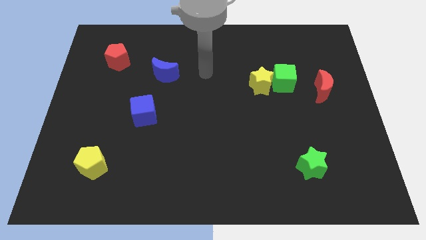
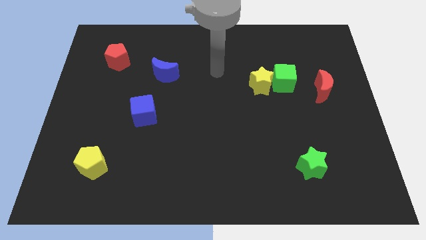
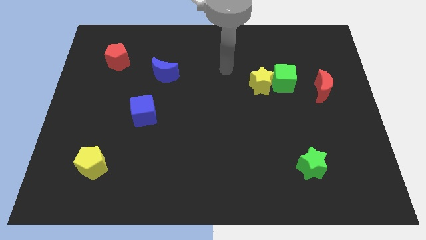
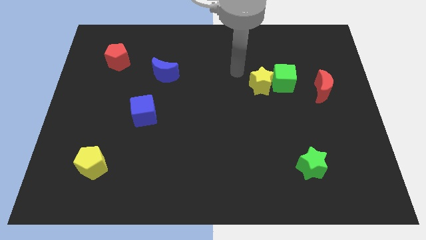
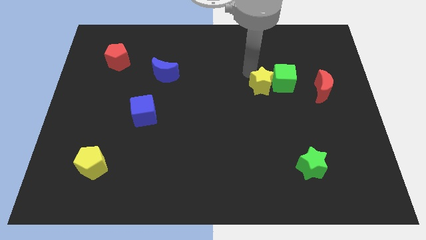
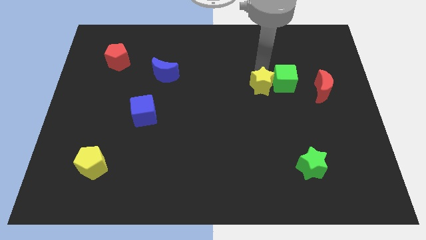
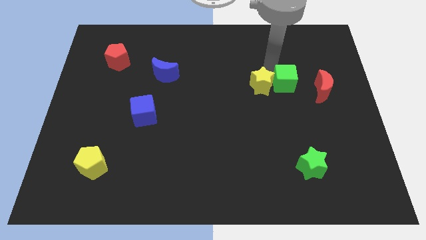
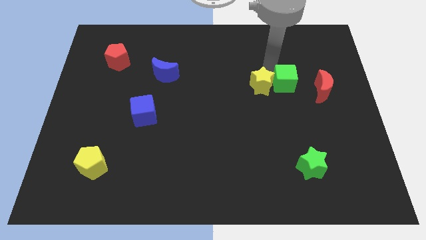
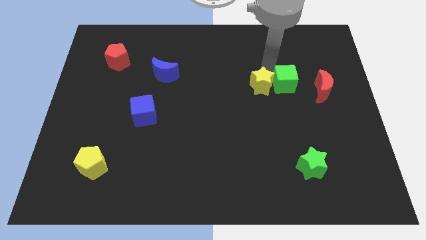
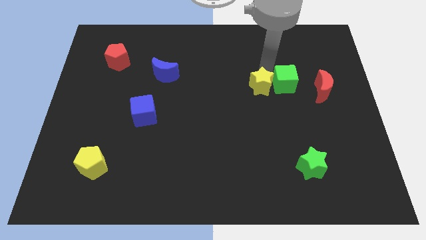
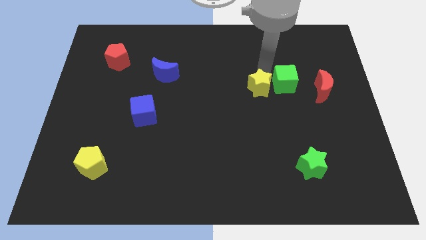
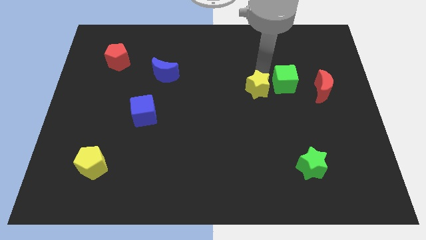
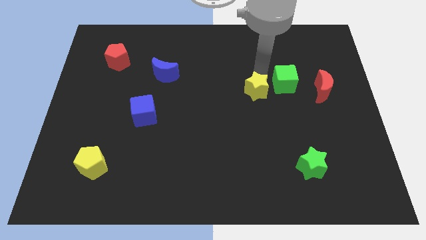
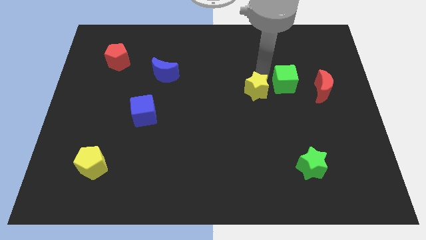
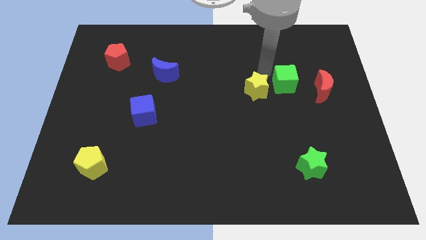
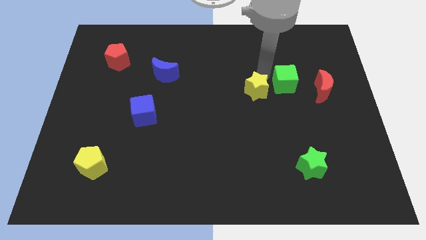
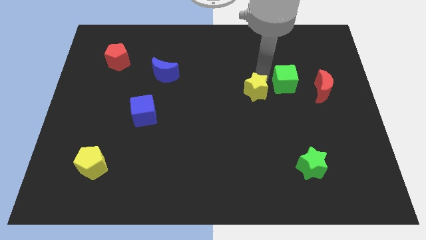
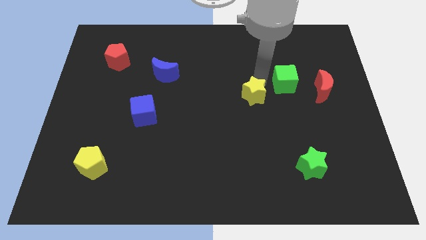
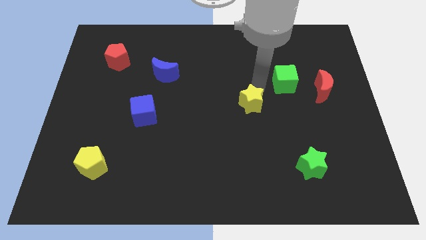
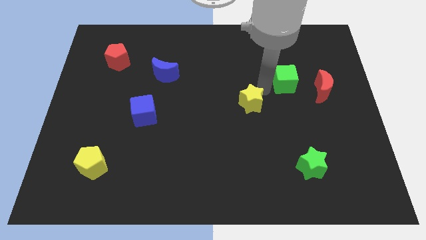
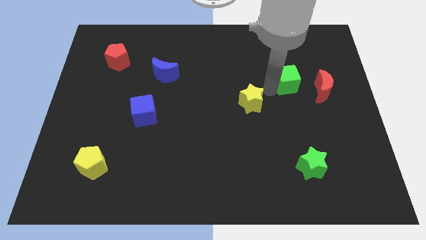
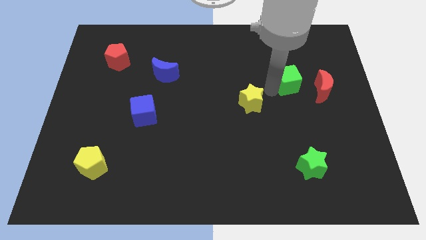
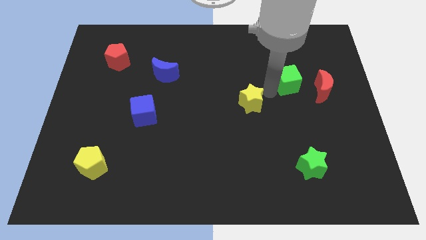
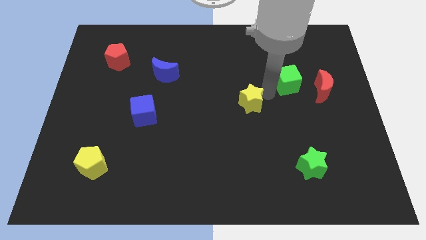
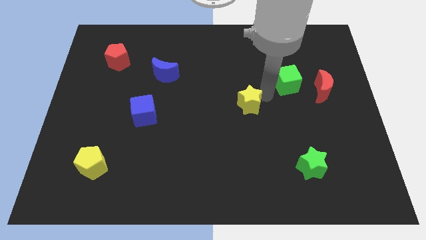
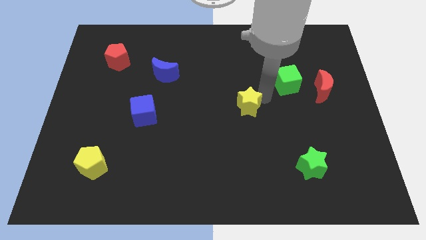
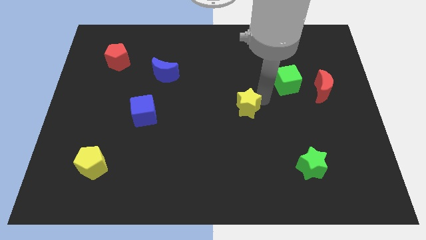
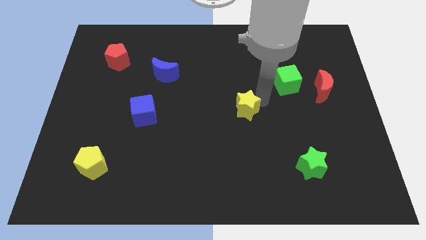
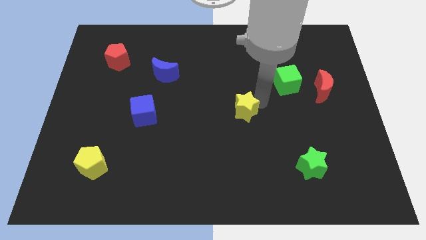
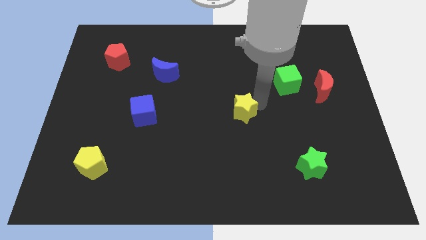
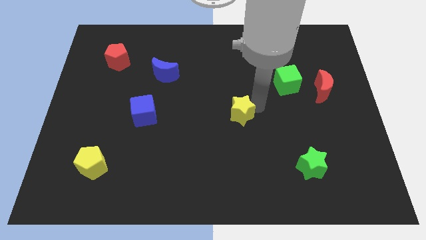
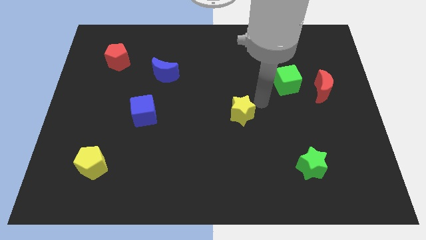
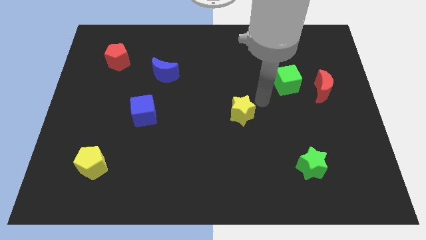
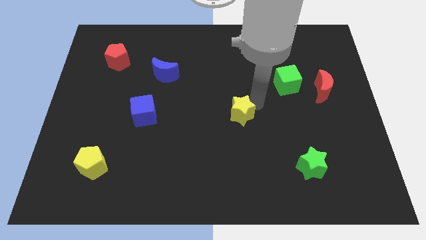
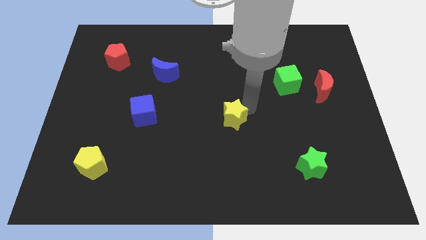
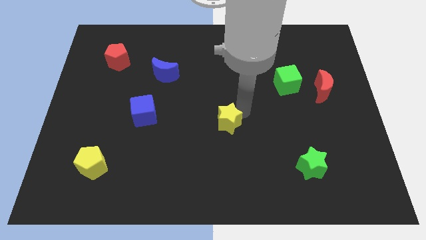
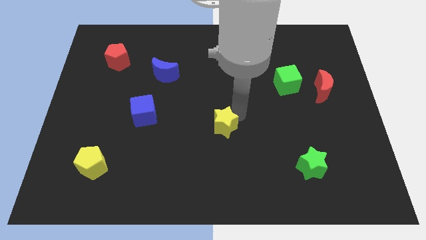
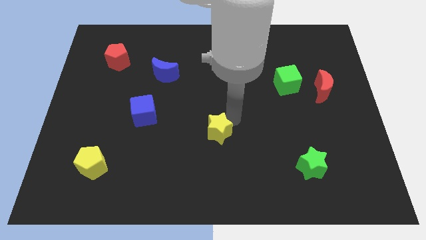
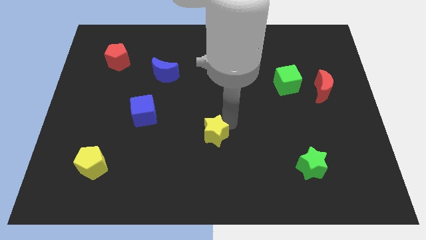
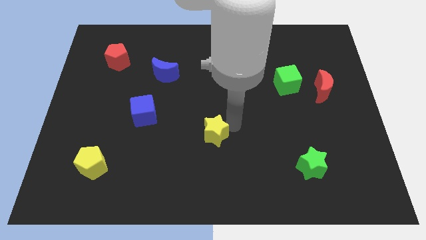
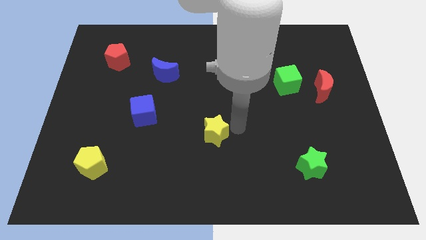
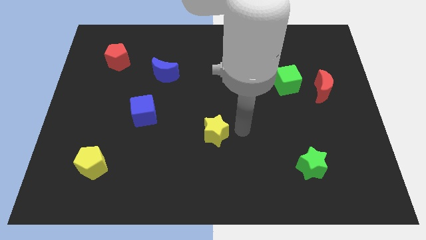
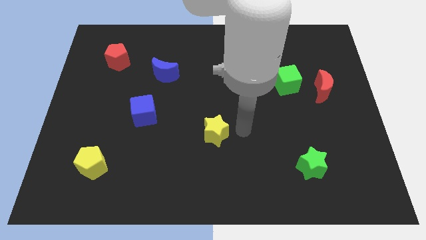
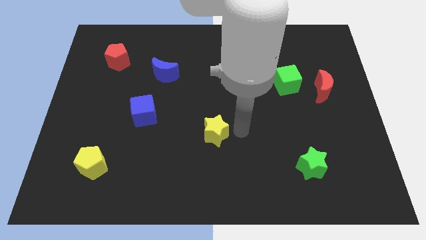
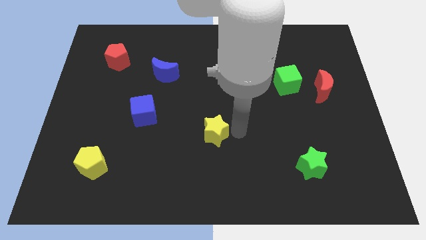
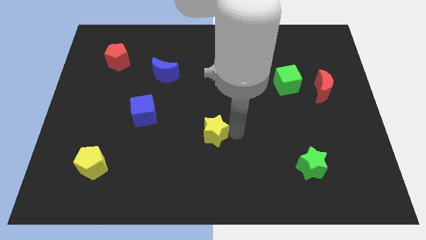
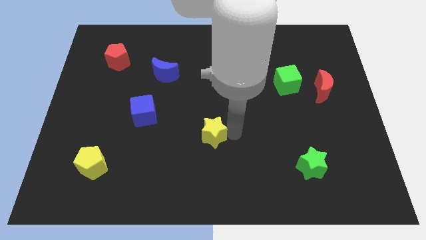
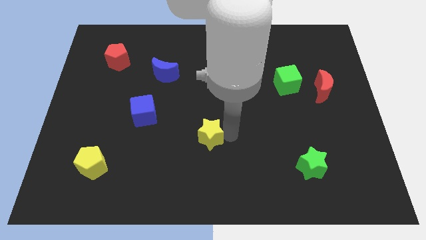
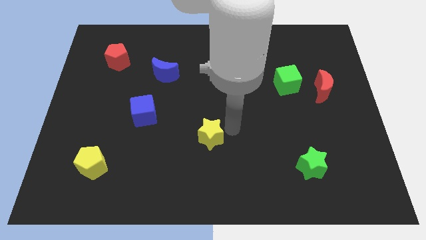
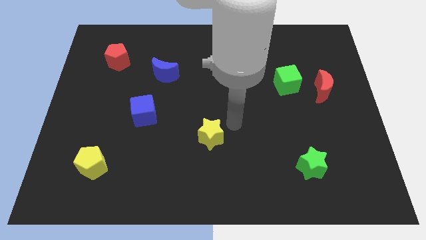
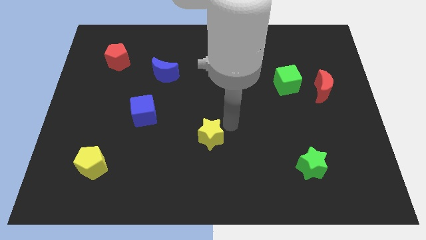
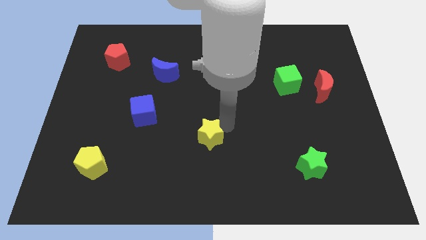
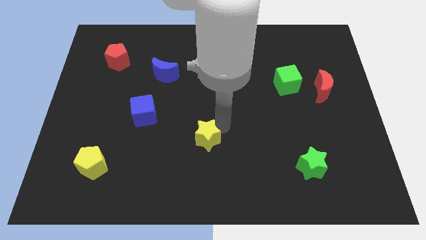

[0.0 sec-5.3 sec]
slide the yellow star down and to the left diagonally

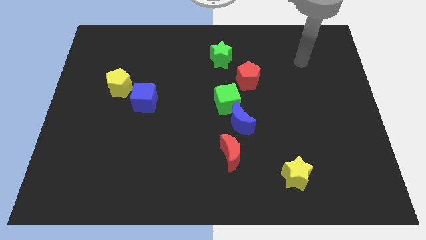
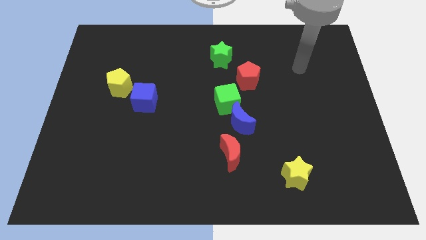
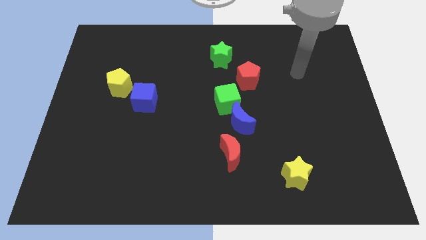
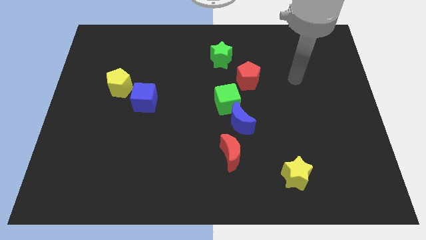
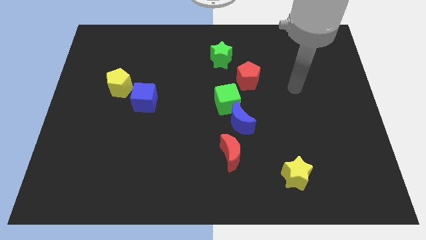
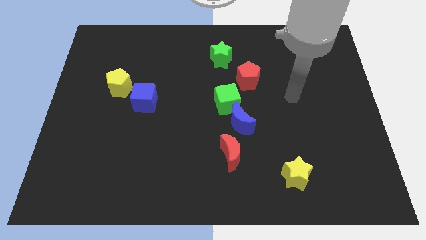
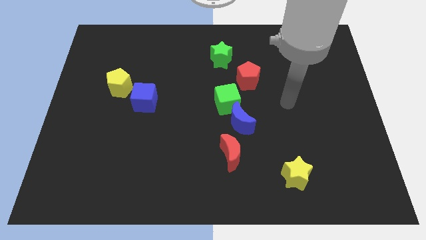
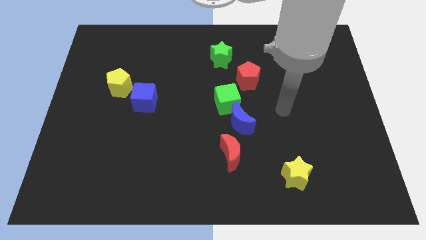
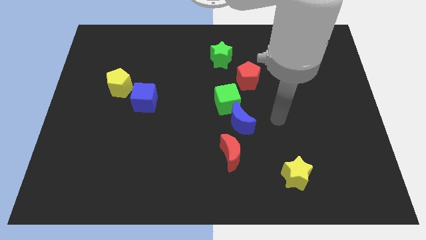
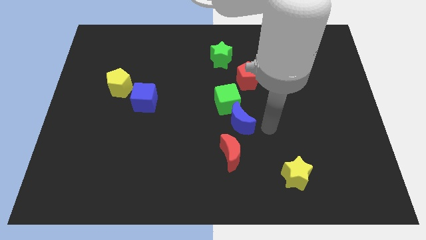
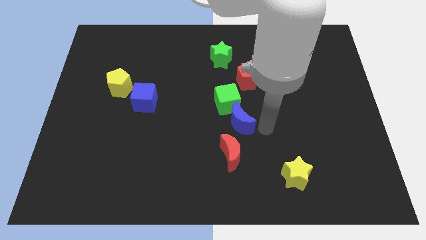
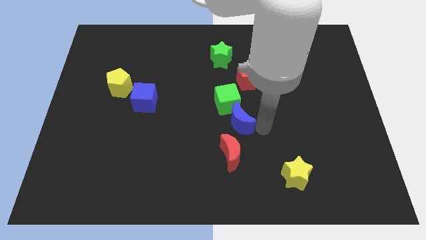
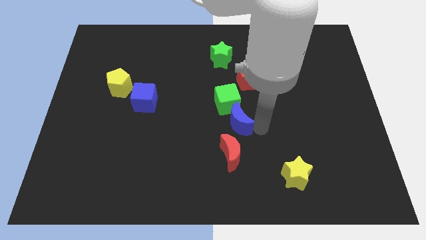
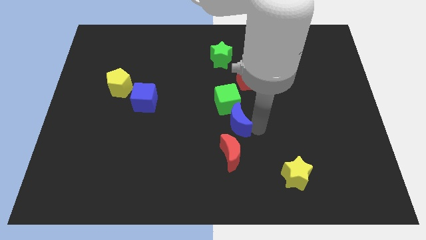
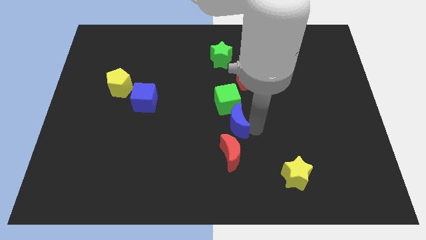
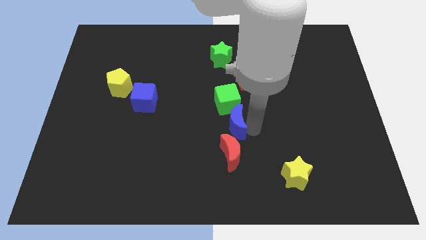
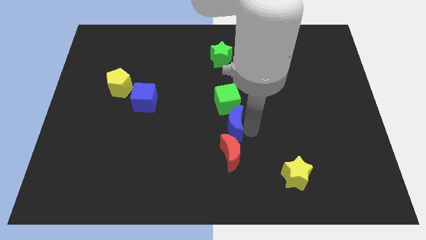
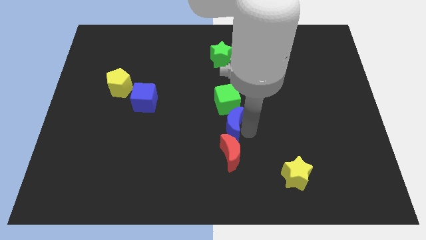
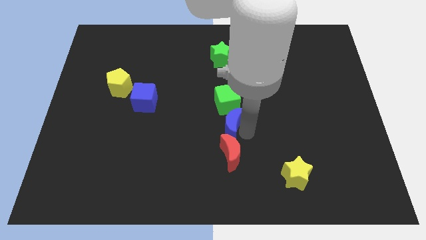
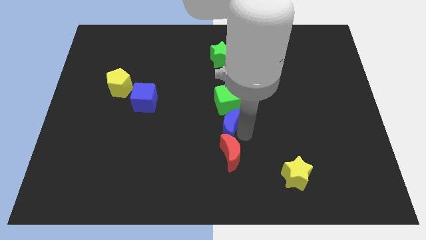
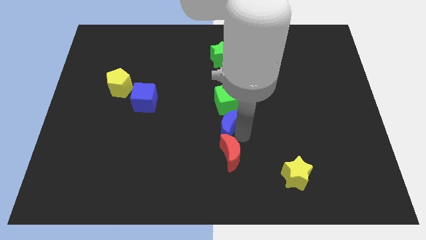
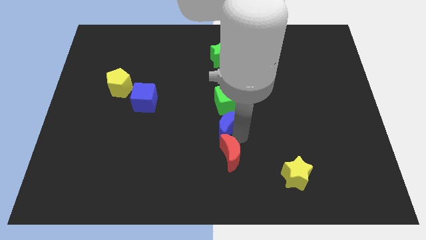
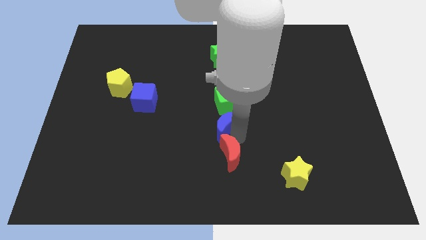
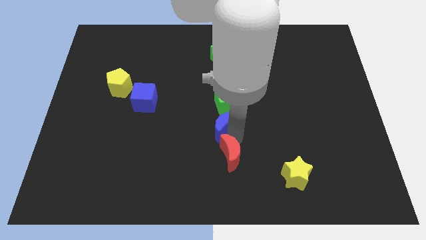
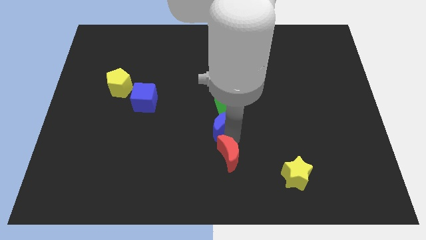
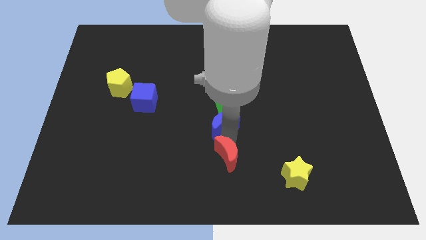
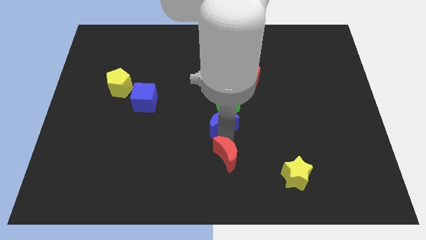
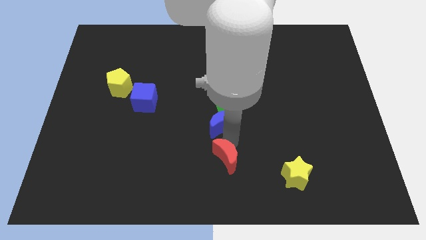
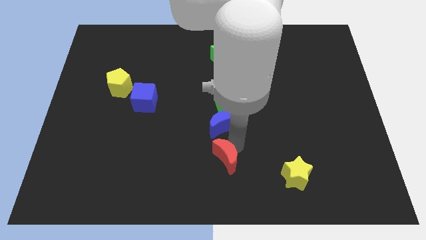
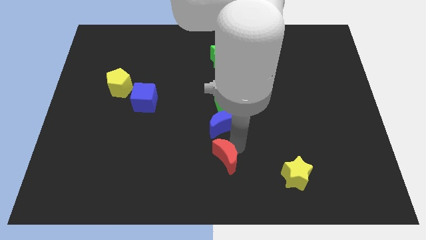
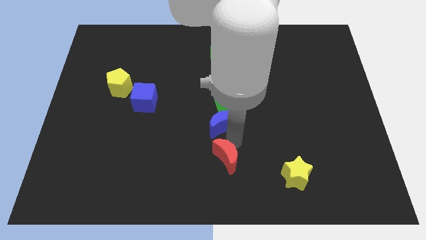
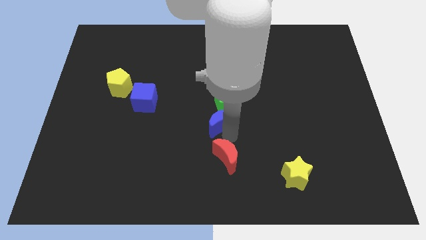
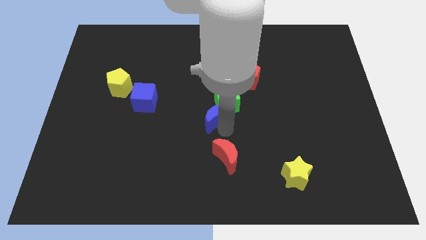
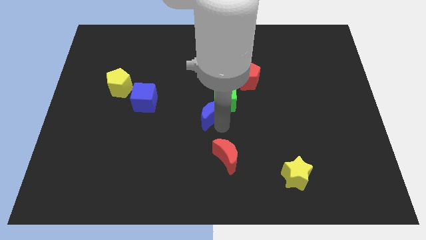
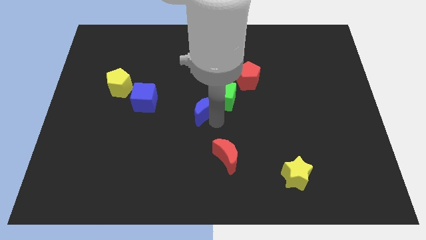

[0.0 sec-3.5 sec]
slide the blue moon up and to the left diagonally a little bit
